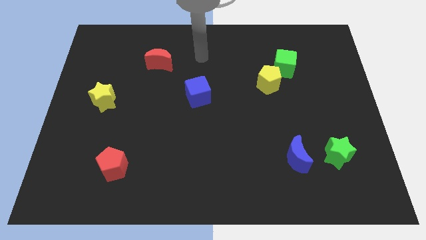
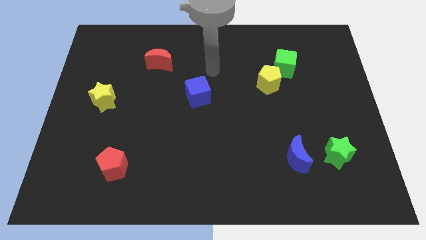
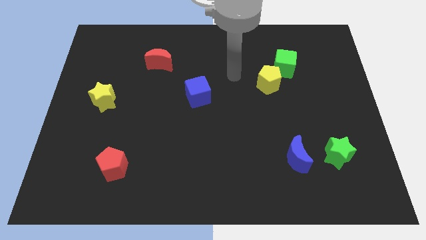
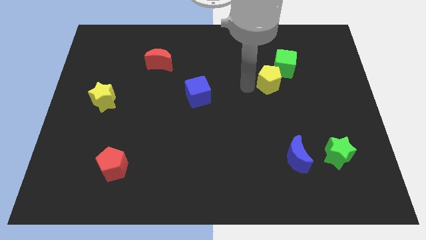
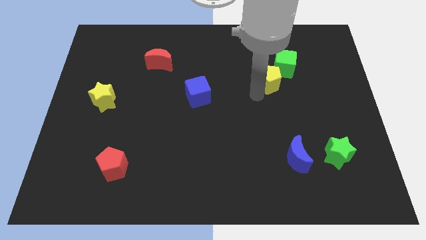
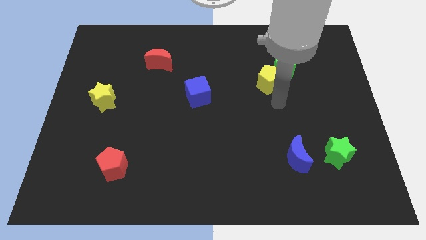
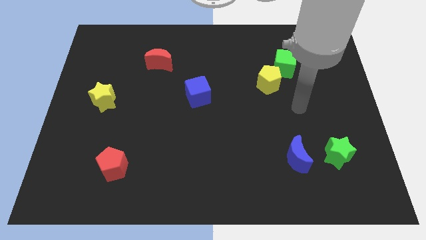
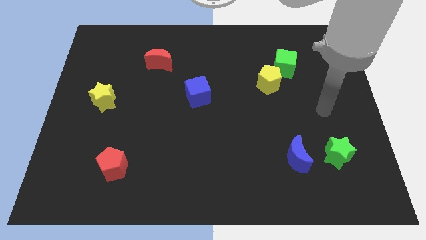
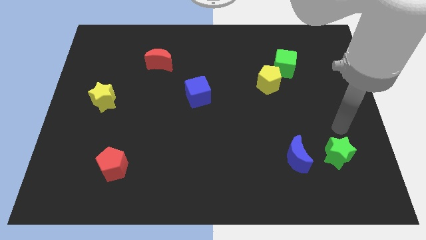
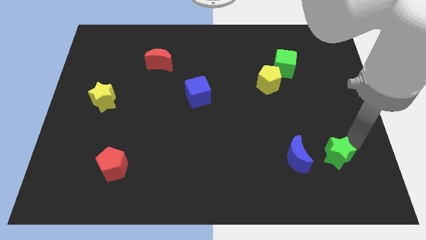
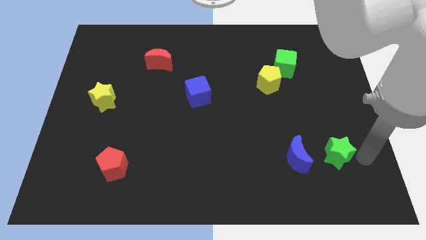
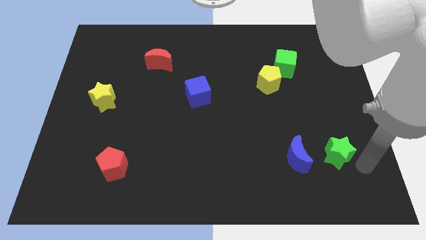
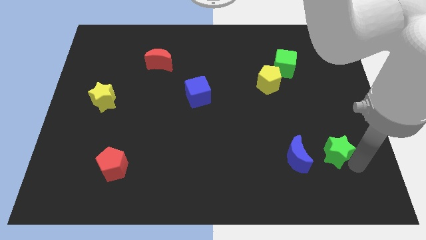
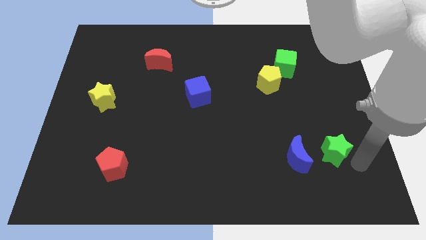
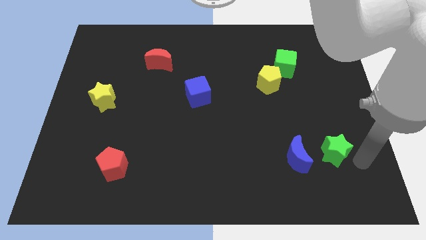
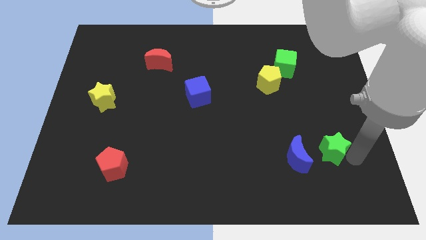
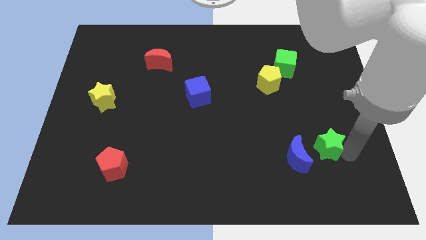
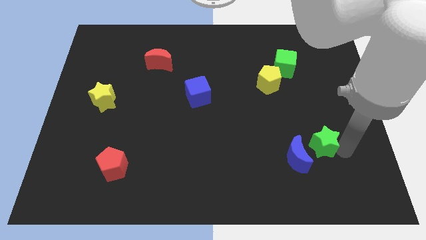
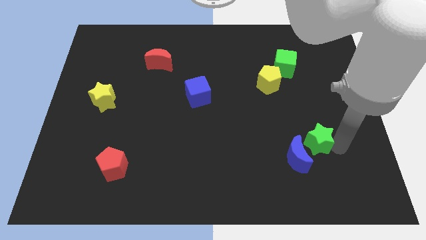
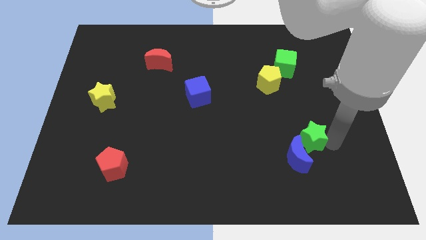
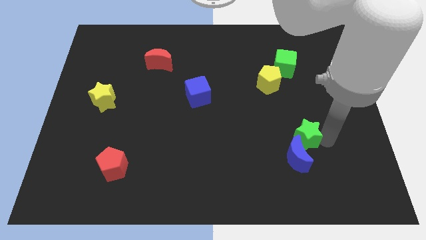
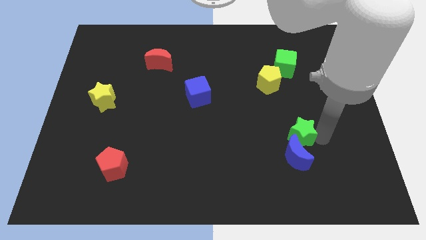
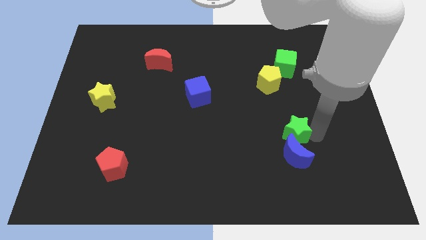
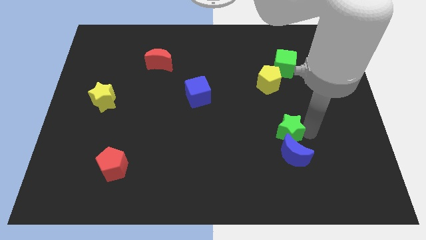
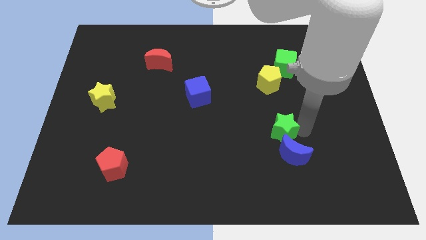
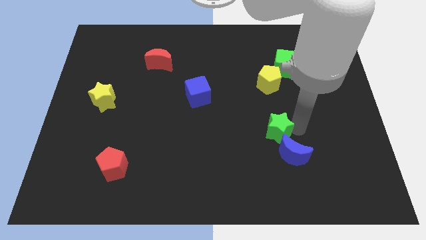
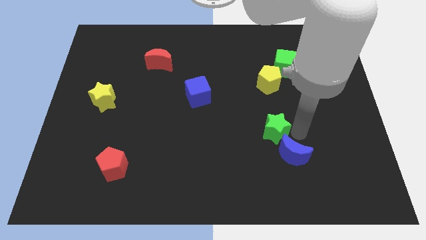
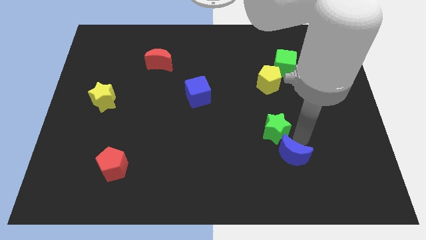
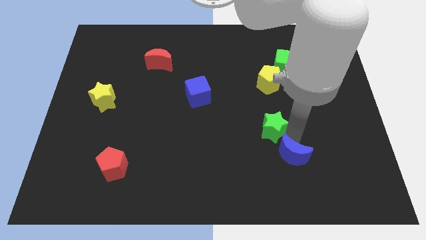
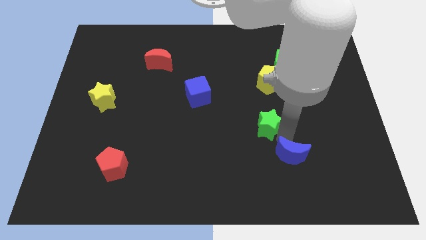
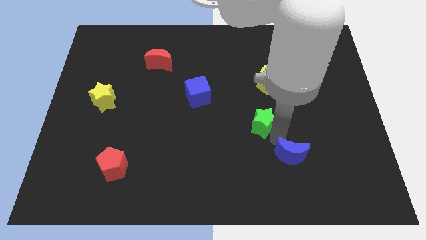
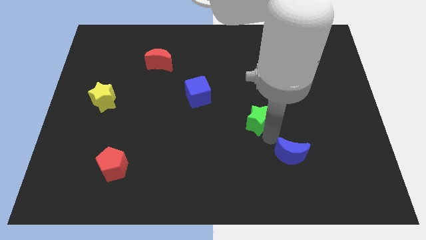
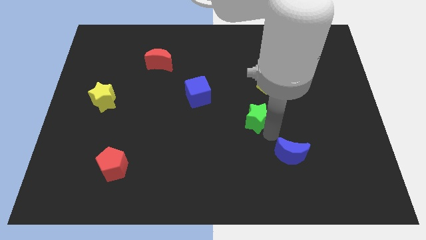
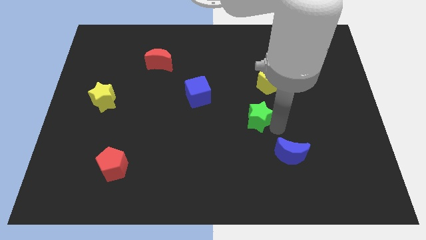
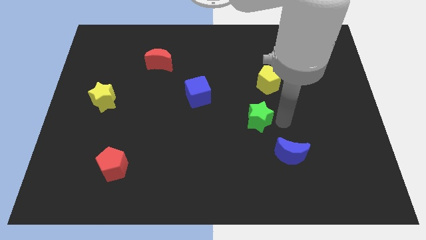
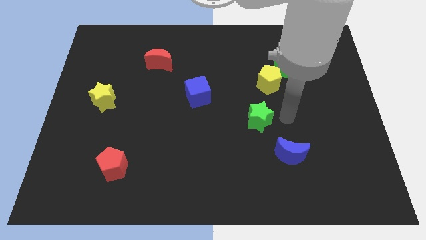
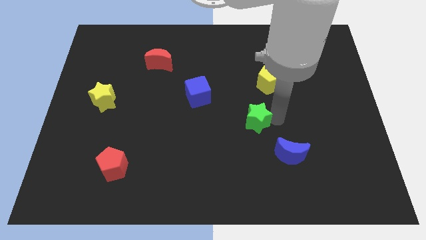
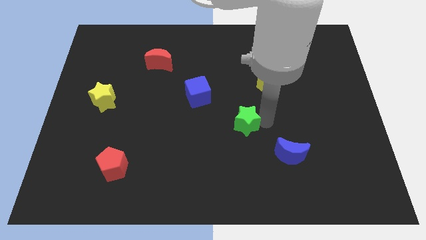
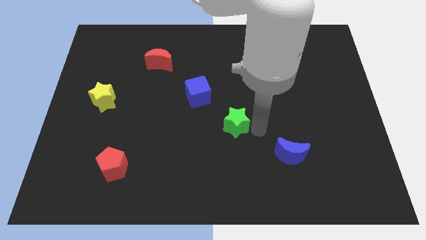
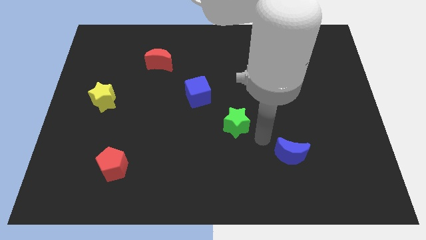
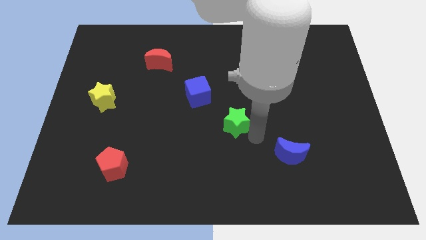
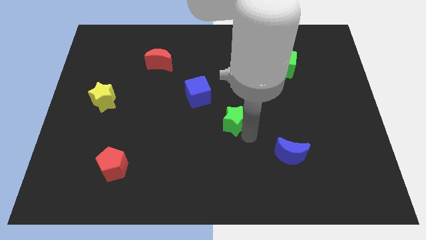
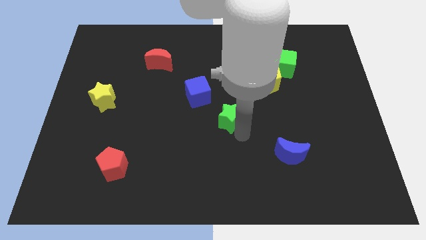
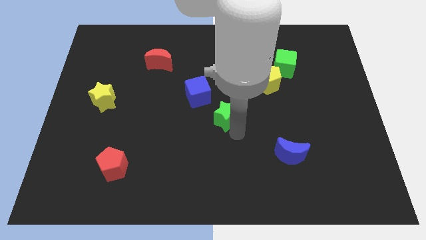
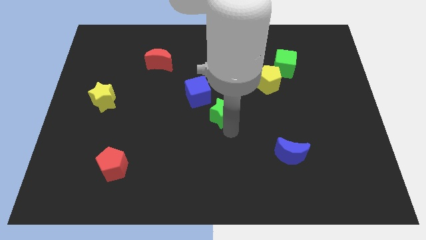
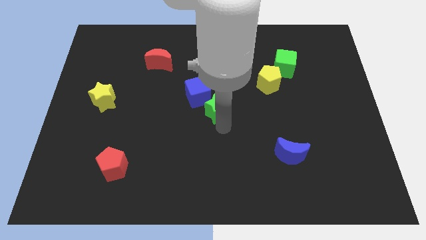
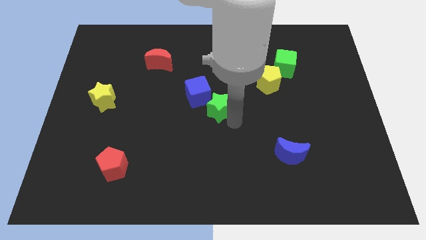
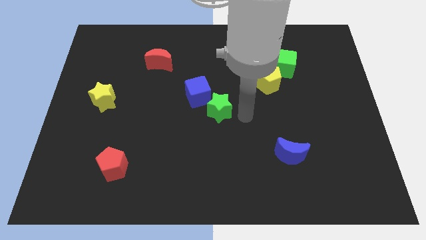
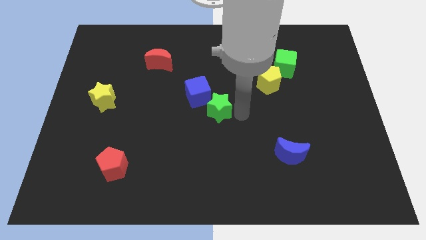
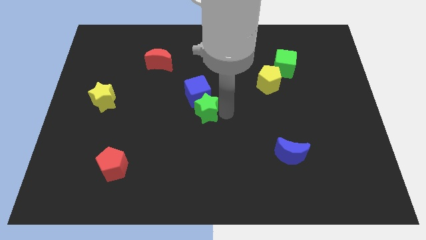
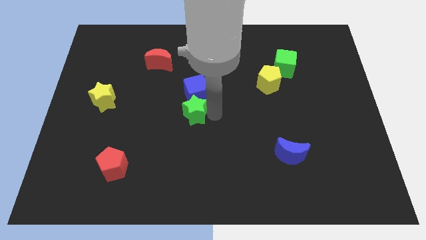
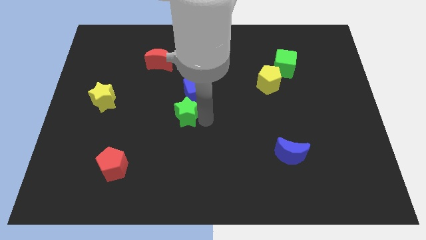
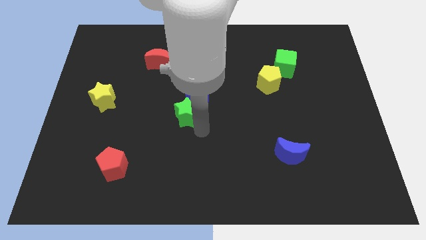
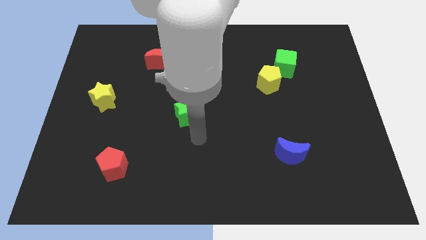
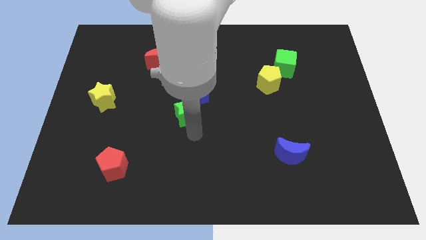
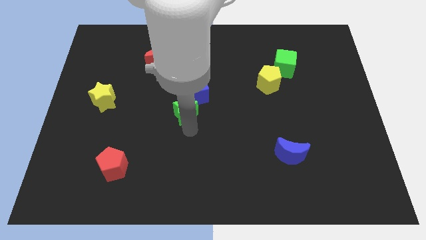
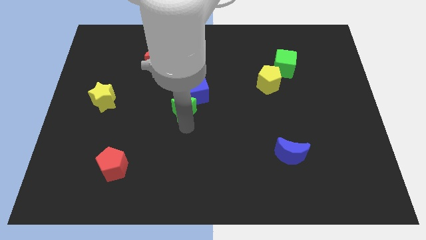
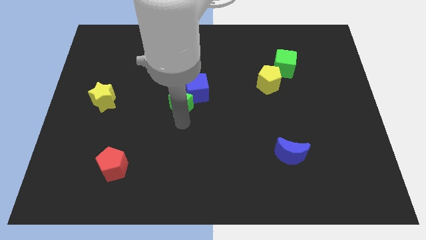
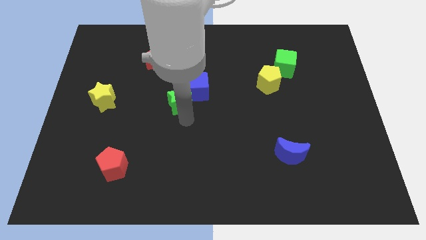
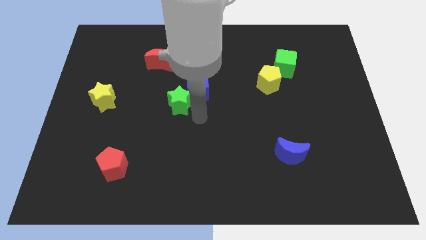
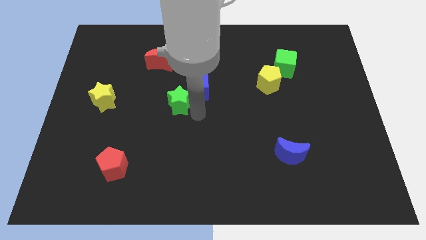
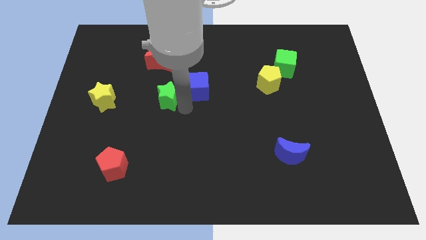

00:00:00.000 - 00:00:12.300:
put the green star to the bottom of the red moon
